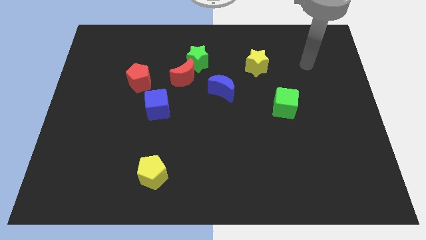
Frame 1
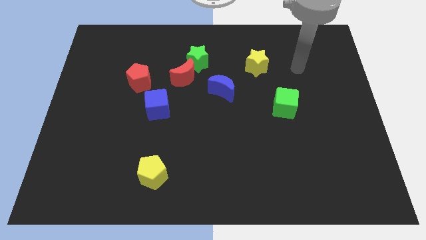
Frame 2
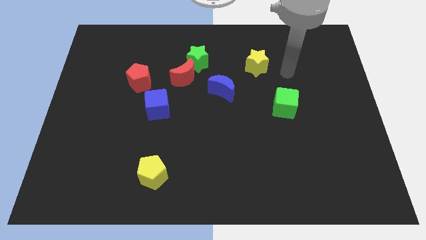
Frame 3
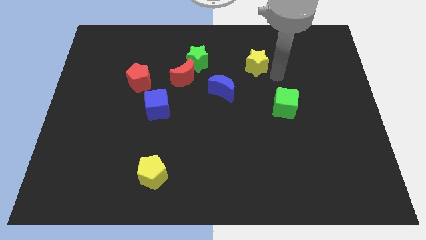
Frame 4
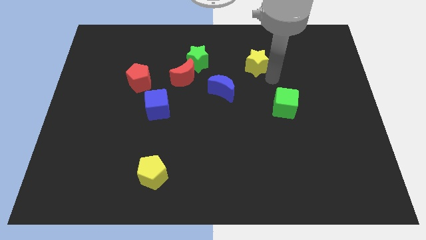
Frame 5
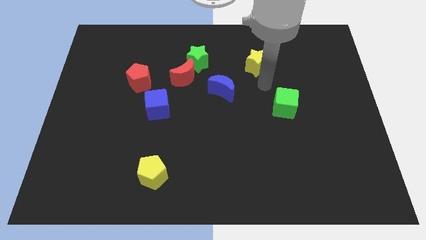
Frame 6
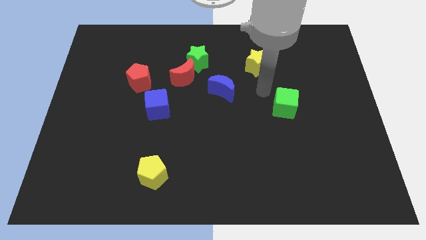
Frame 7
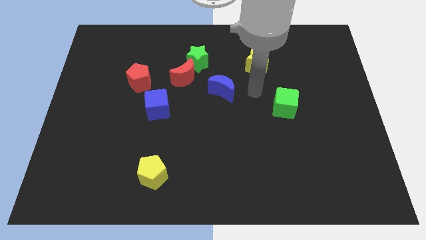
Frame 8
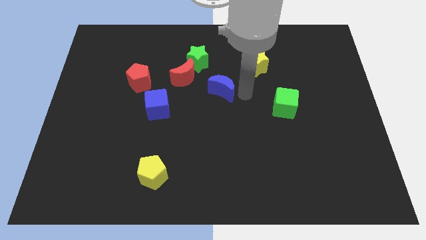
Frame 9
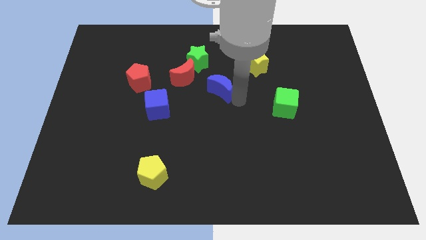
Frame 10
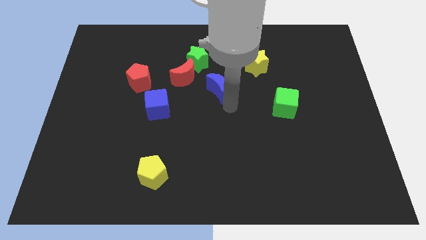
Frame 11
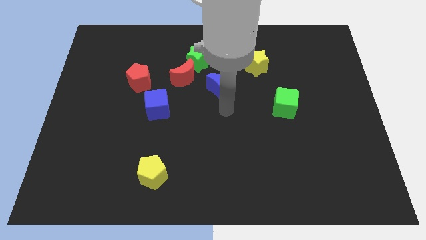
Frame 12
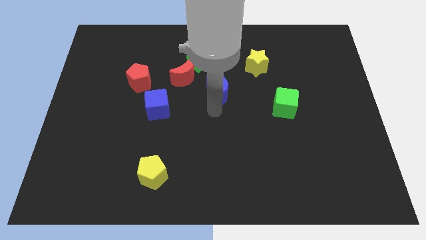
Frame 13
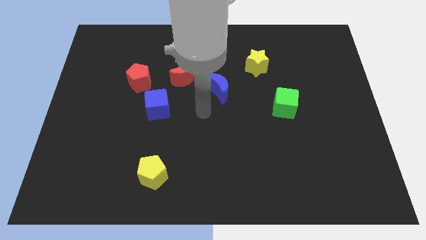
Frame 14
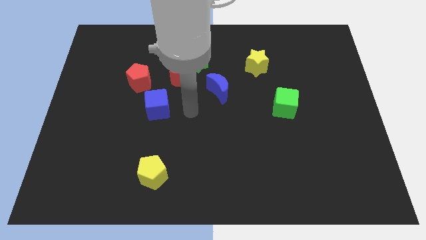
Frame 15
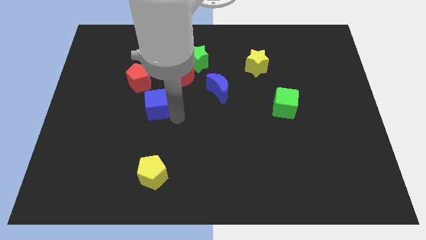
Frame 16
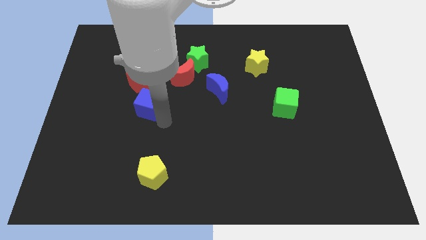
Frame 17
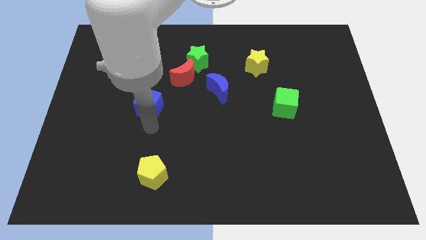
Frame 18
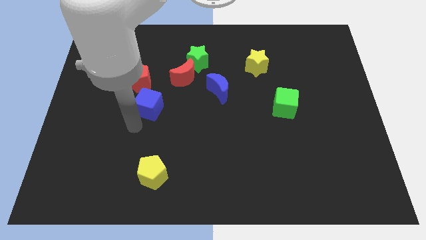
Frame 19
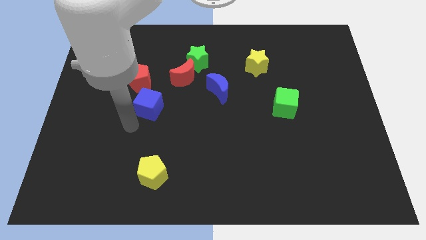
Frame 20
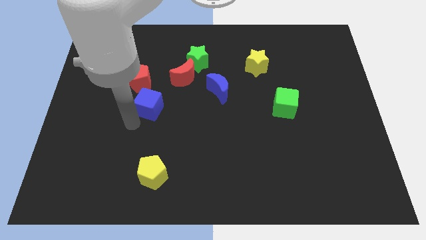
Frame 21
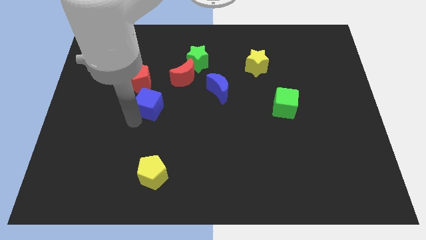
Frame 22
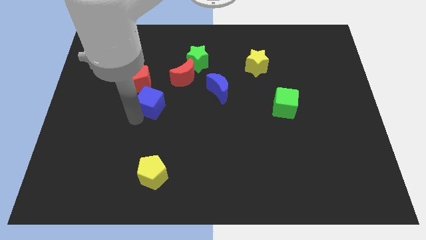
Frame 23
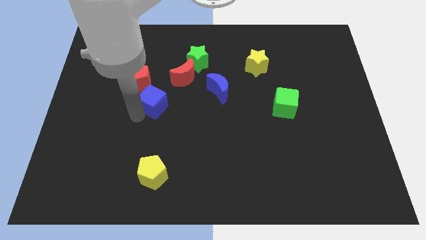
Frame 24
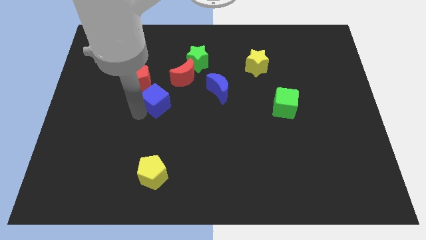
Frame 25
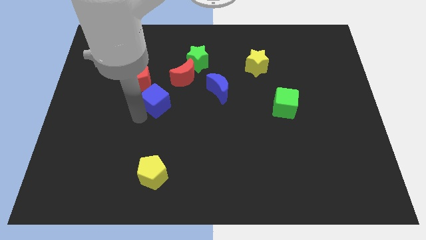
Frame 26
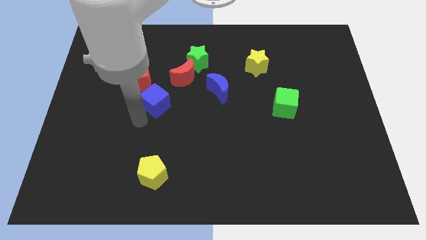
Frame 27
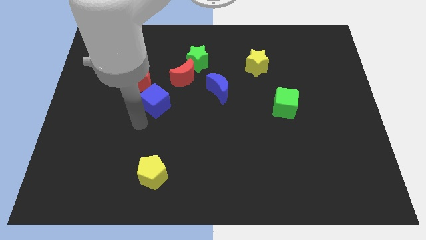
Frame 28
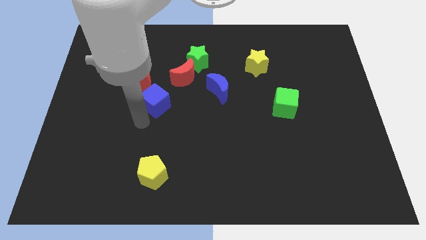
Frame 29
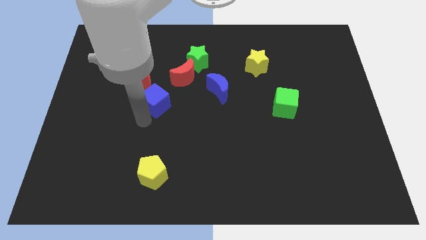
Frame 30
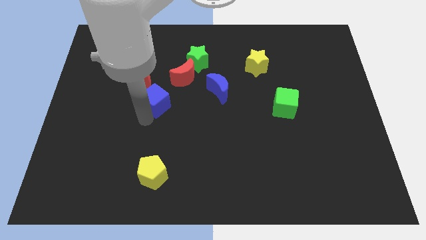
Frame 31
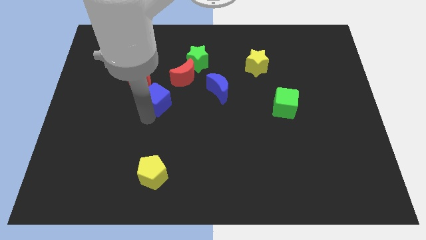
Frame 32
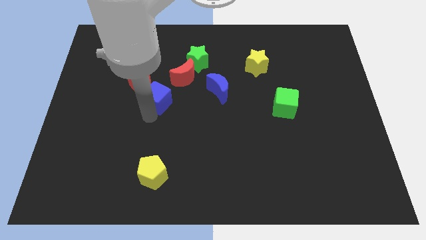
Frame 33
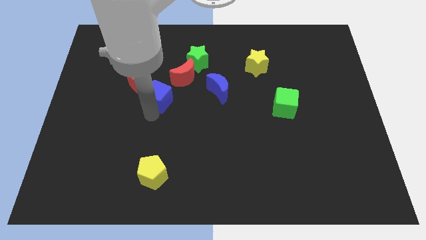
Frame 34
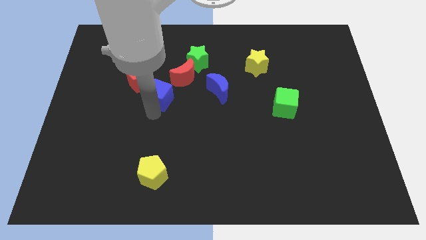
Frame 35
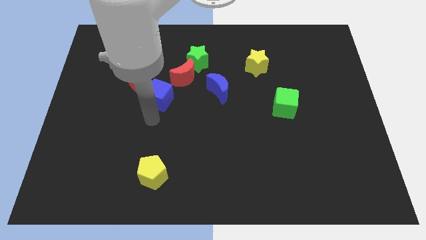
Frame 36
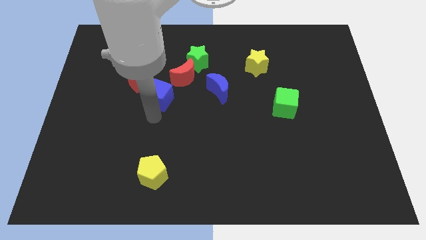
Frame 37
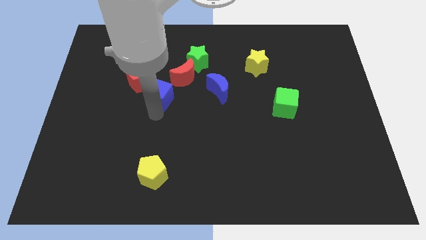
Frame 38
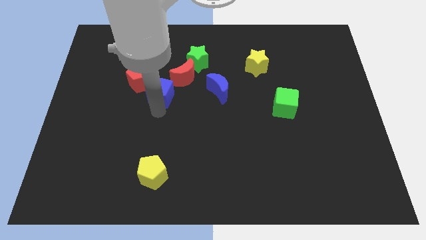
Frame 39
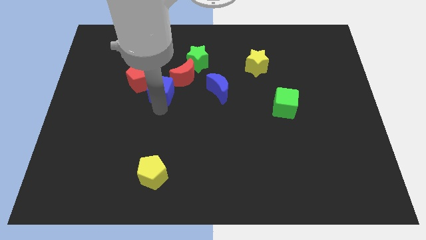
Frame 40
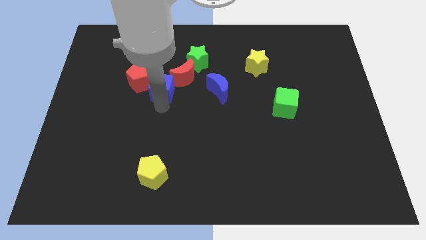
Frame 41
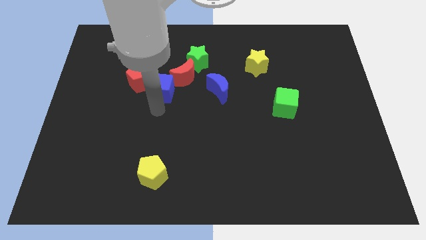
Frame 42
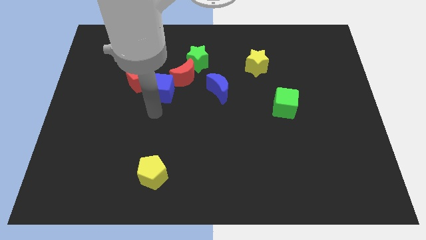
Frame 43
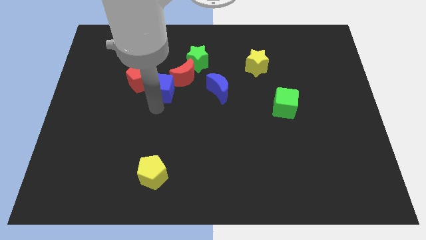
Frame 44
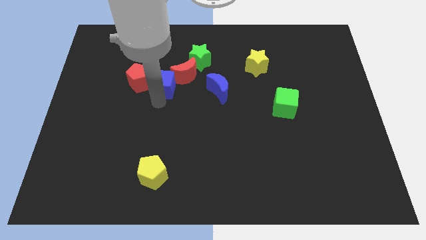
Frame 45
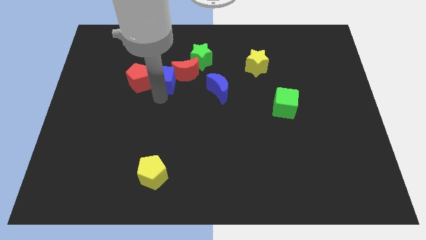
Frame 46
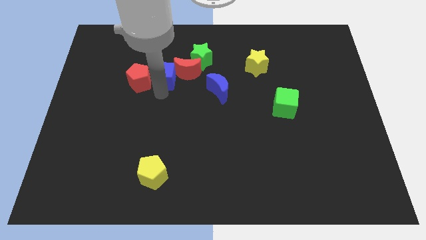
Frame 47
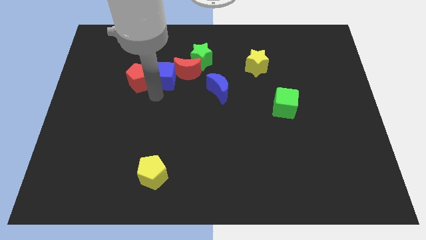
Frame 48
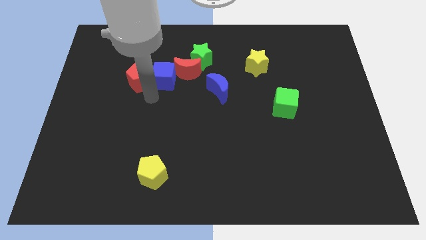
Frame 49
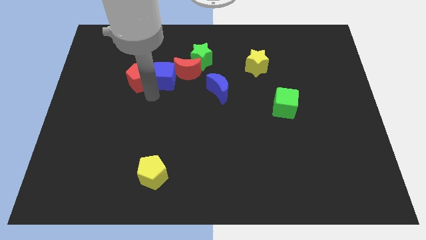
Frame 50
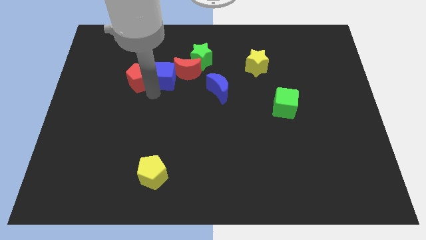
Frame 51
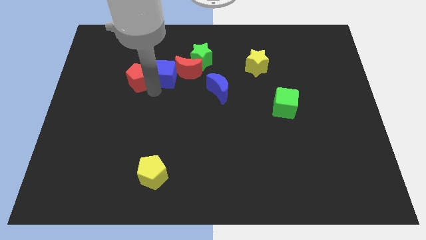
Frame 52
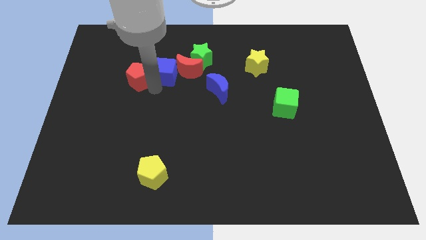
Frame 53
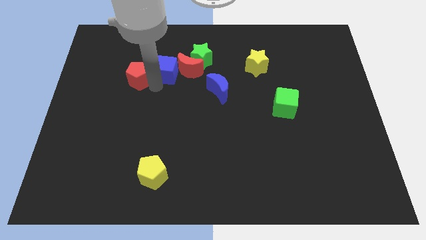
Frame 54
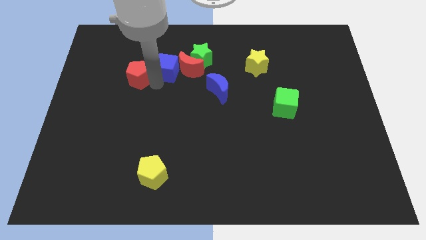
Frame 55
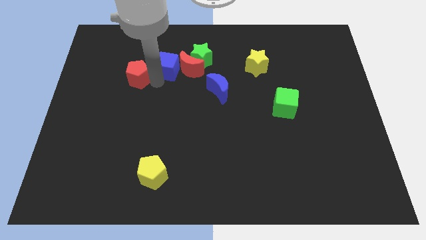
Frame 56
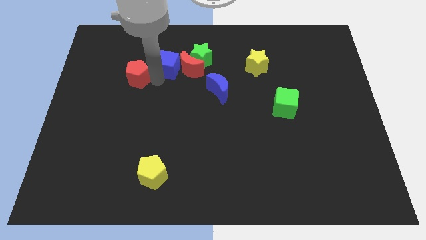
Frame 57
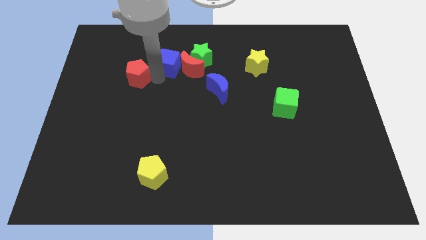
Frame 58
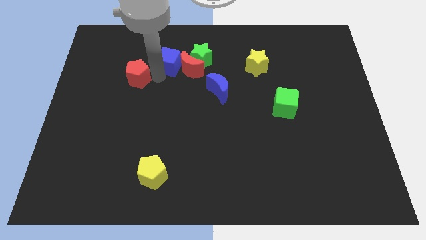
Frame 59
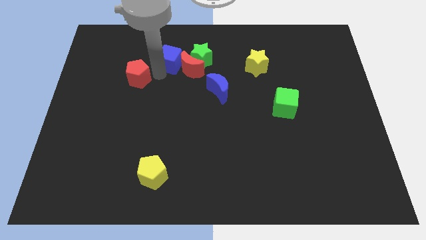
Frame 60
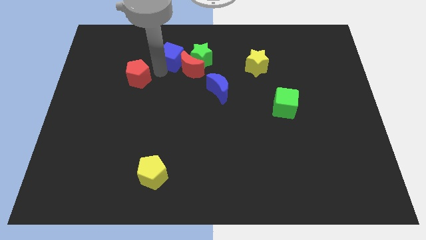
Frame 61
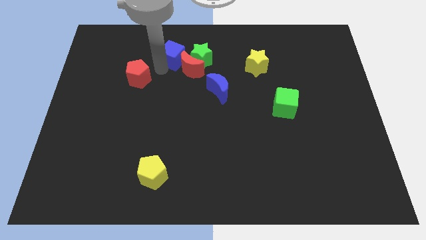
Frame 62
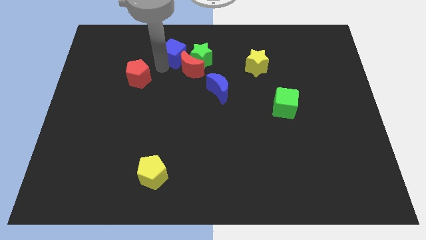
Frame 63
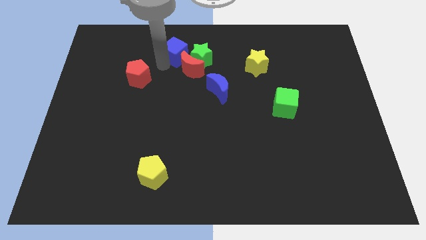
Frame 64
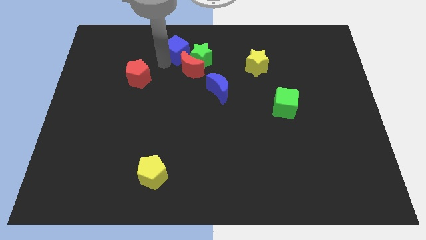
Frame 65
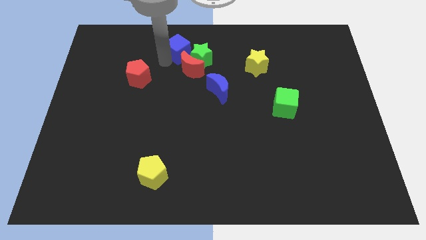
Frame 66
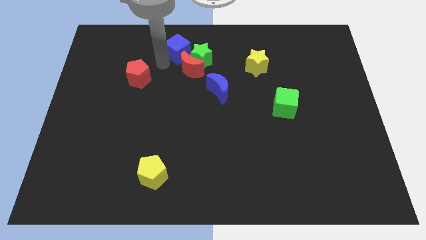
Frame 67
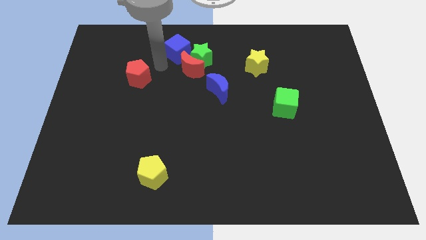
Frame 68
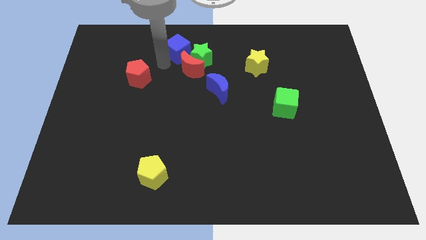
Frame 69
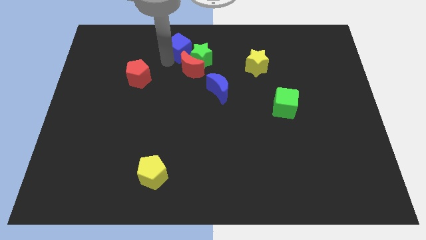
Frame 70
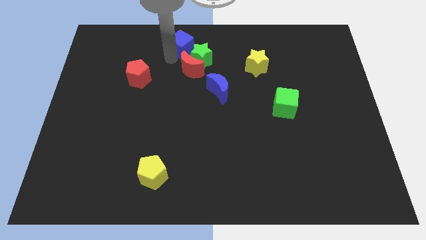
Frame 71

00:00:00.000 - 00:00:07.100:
push the blue cube to the top
